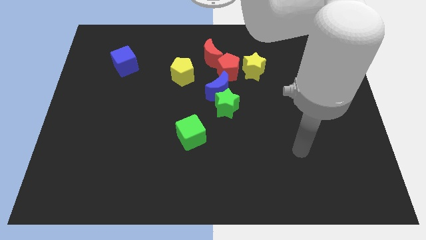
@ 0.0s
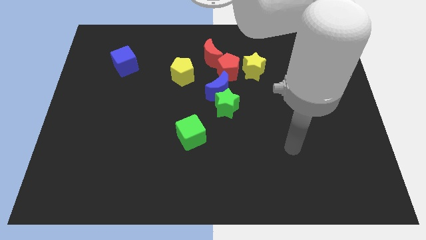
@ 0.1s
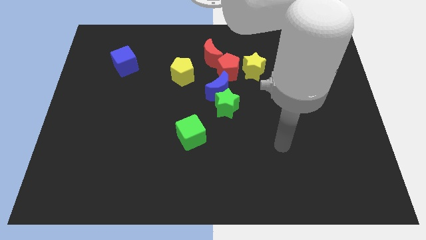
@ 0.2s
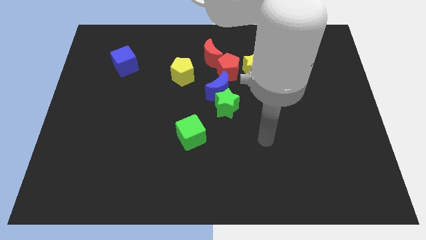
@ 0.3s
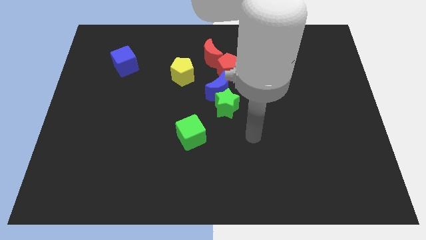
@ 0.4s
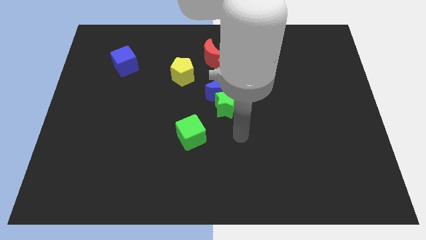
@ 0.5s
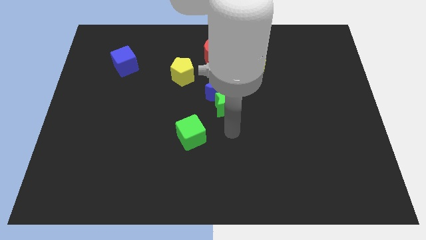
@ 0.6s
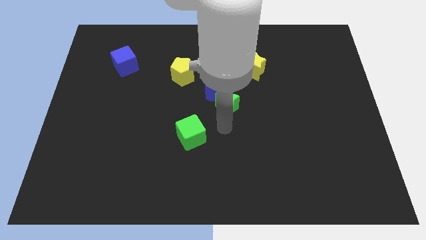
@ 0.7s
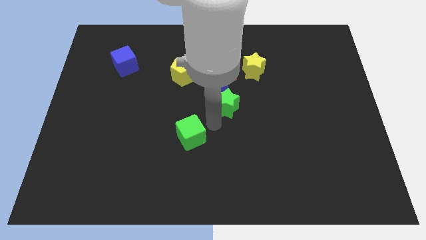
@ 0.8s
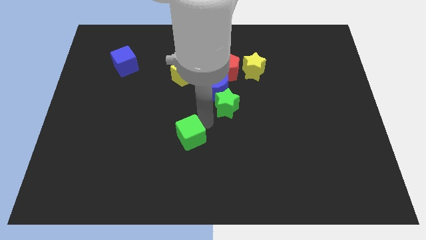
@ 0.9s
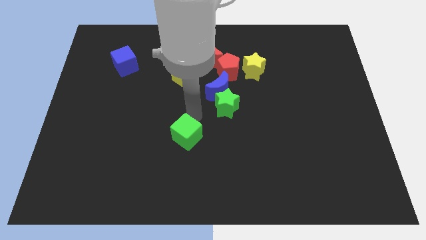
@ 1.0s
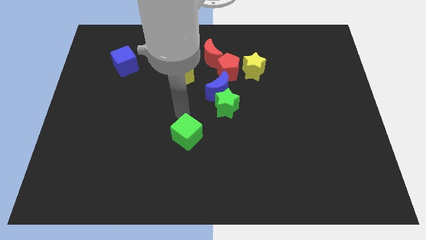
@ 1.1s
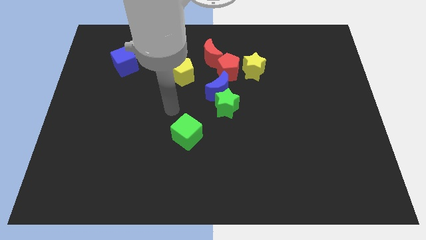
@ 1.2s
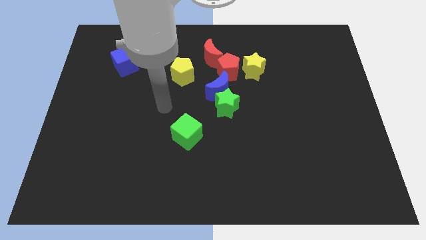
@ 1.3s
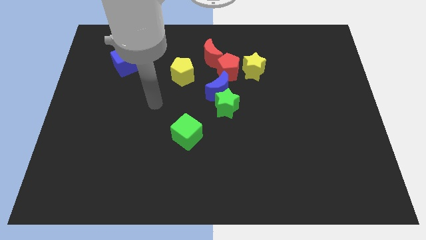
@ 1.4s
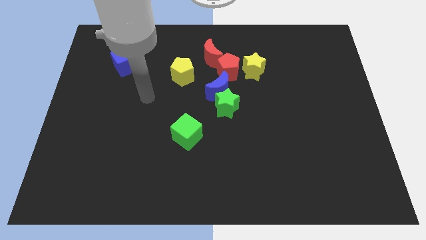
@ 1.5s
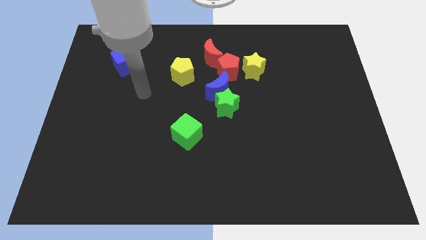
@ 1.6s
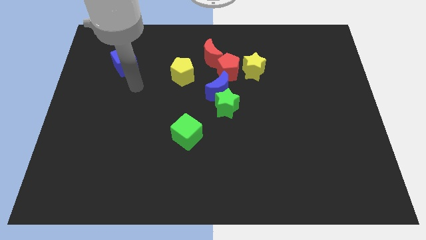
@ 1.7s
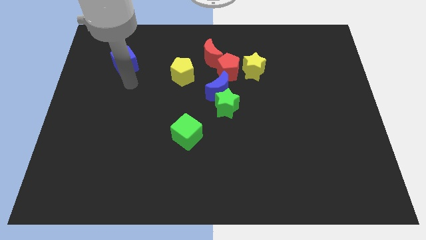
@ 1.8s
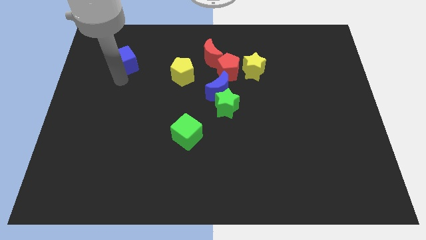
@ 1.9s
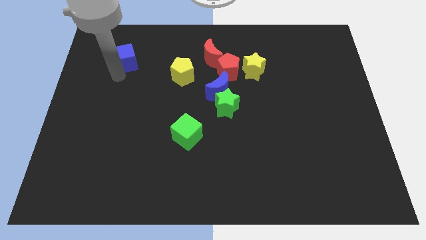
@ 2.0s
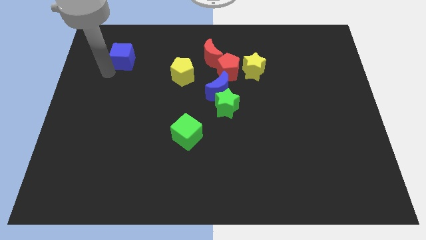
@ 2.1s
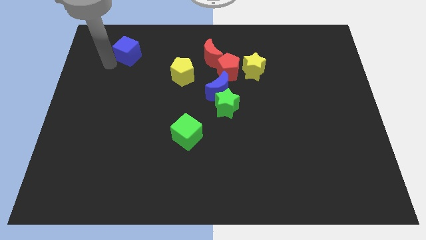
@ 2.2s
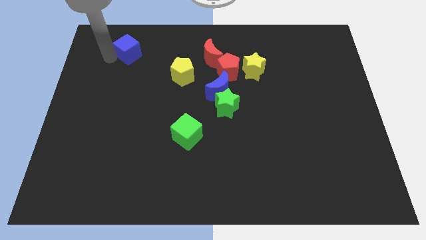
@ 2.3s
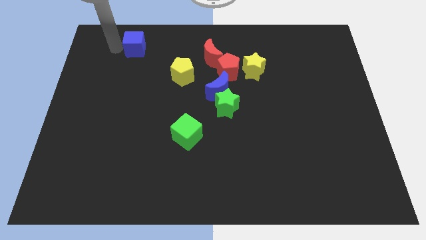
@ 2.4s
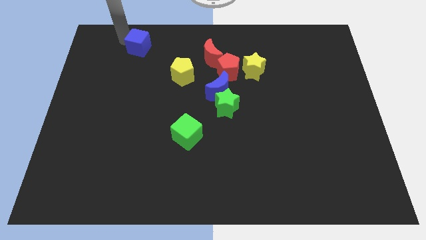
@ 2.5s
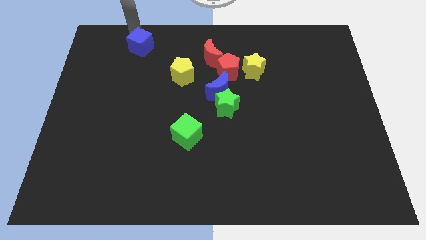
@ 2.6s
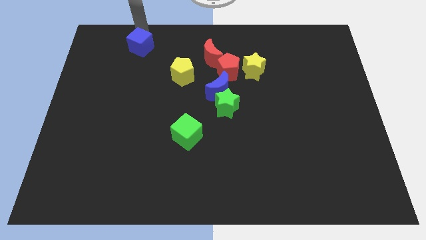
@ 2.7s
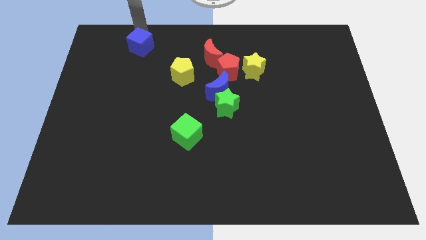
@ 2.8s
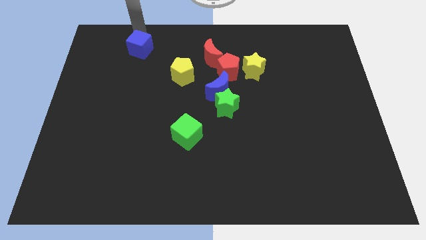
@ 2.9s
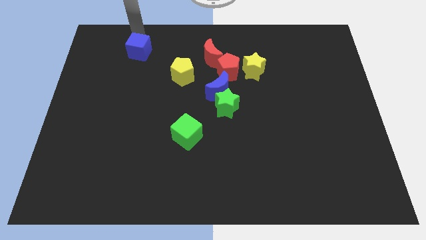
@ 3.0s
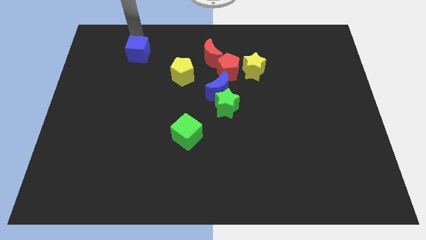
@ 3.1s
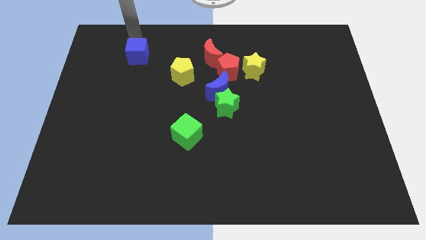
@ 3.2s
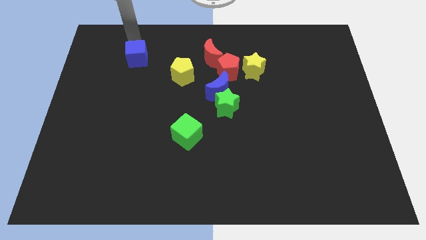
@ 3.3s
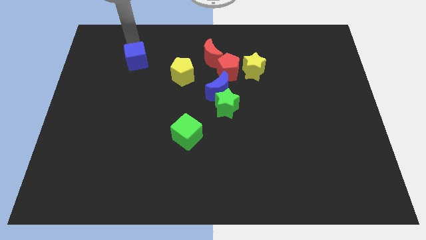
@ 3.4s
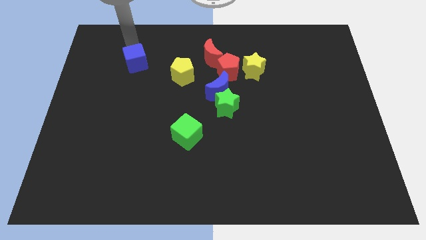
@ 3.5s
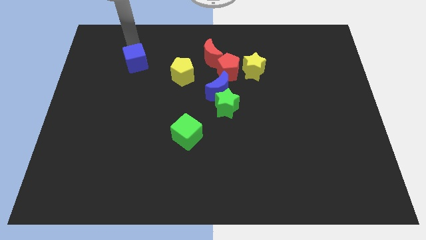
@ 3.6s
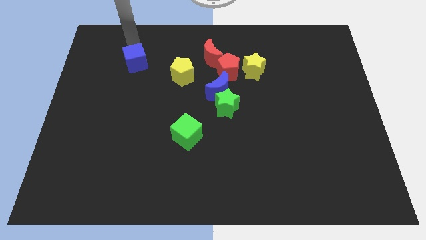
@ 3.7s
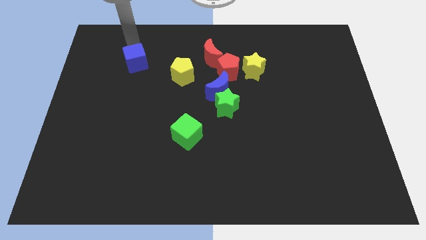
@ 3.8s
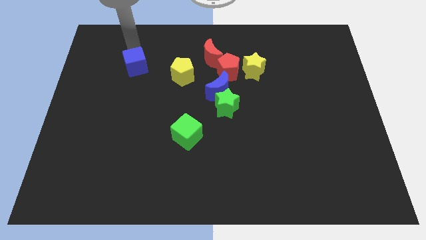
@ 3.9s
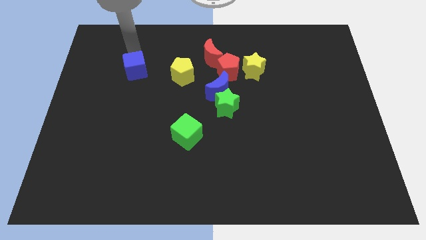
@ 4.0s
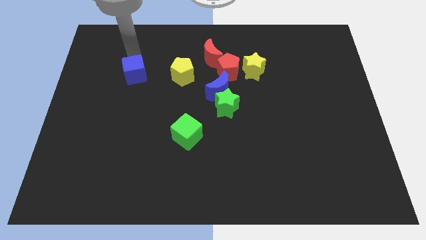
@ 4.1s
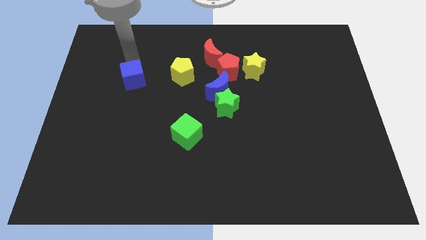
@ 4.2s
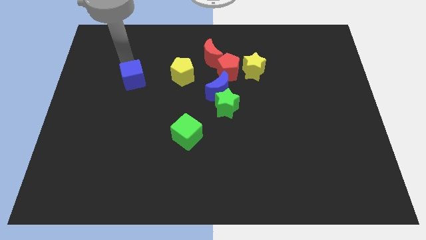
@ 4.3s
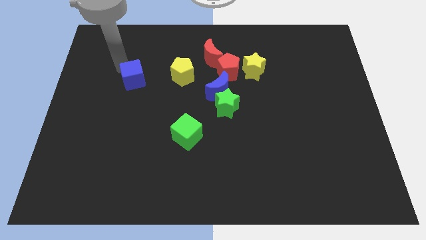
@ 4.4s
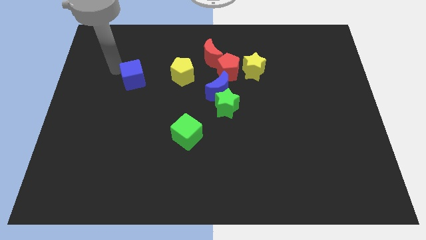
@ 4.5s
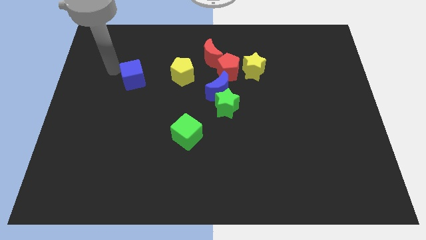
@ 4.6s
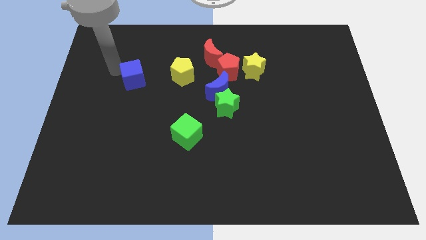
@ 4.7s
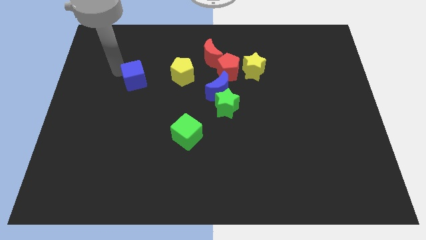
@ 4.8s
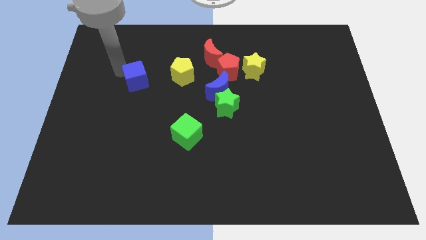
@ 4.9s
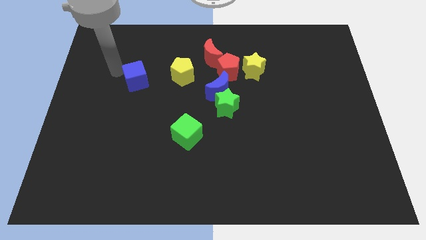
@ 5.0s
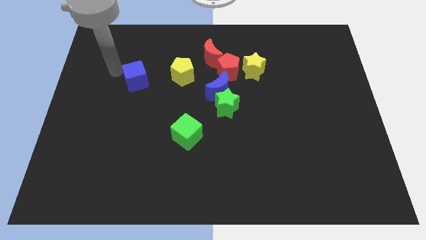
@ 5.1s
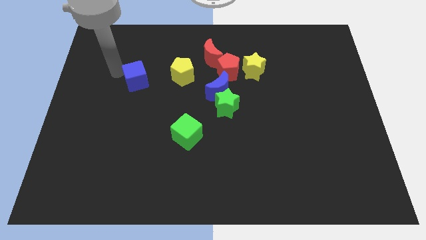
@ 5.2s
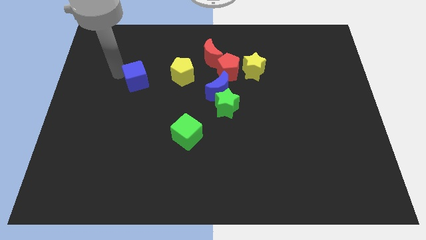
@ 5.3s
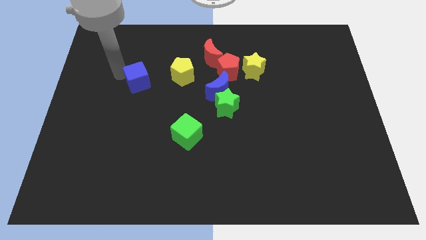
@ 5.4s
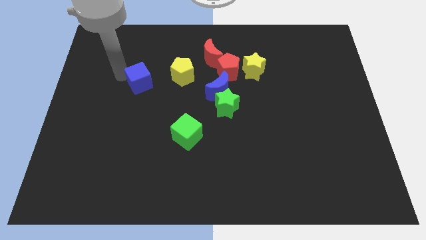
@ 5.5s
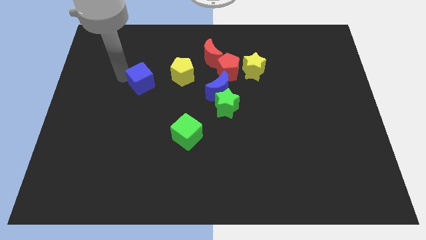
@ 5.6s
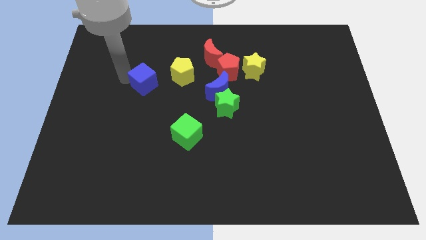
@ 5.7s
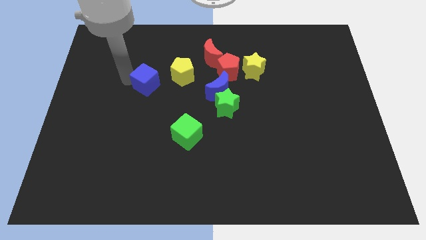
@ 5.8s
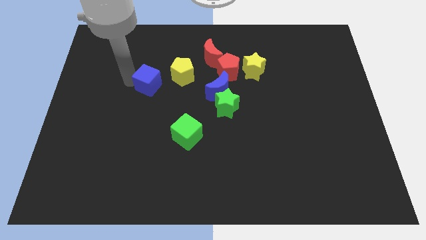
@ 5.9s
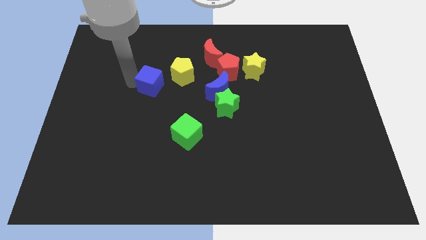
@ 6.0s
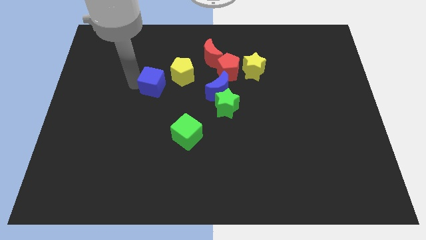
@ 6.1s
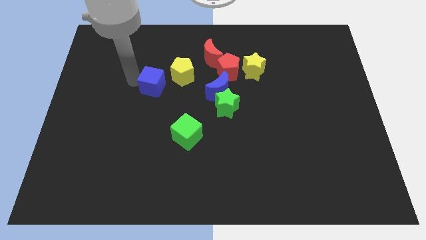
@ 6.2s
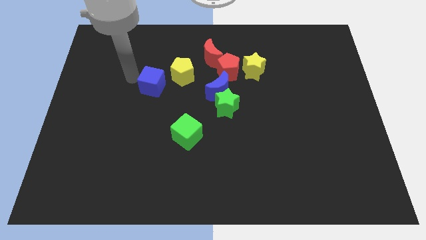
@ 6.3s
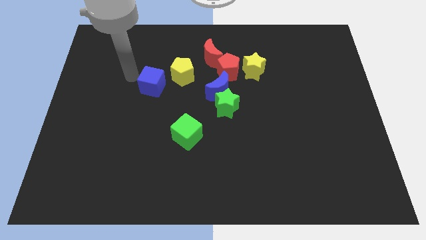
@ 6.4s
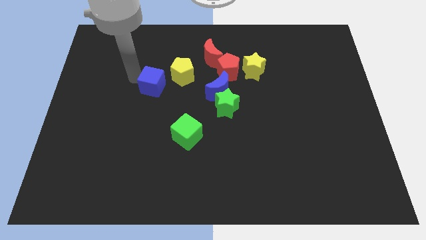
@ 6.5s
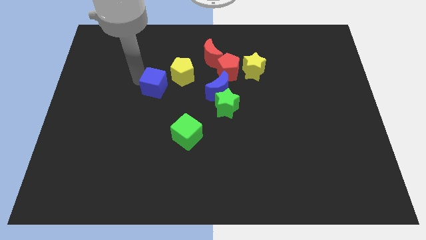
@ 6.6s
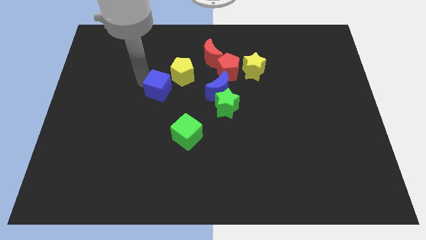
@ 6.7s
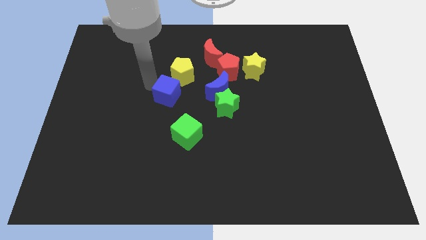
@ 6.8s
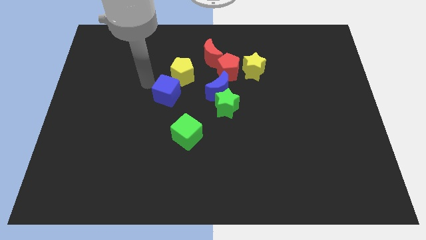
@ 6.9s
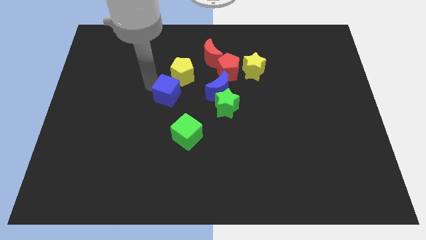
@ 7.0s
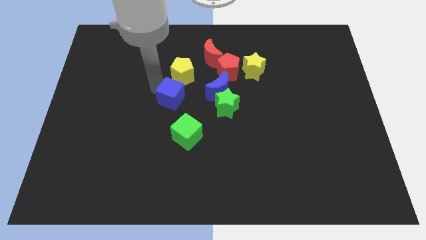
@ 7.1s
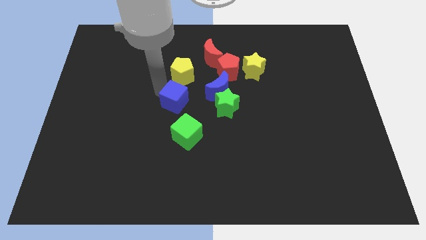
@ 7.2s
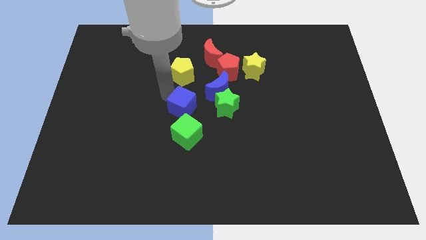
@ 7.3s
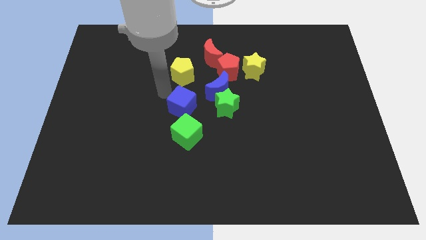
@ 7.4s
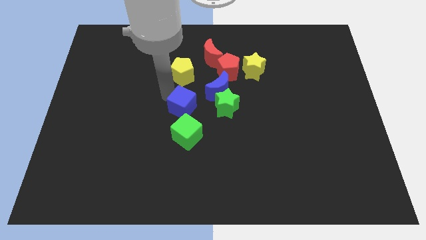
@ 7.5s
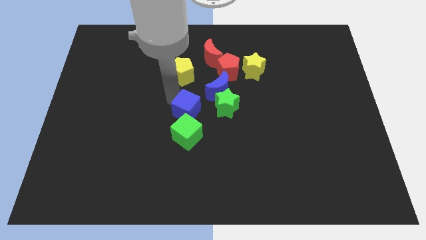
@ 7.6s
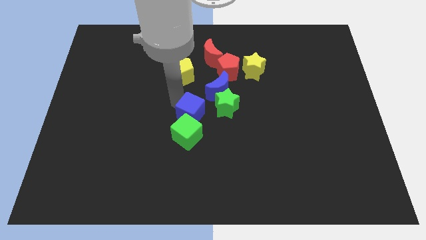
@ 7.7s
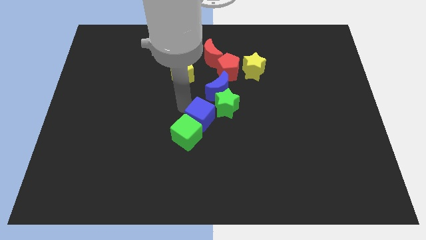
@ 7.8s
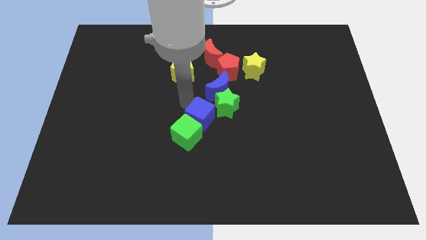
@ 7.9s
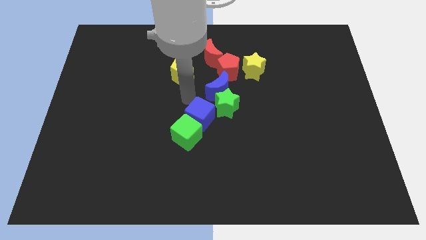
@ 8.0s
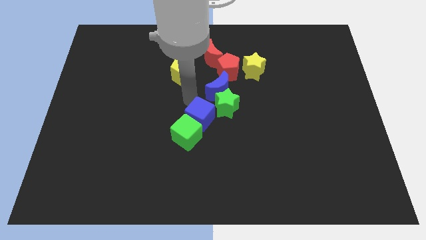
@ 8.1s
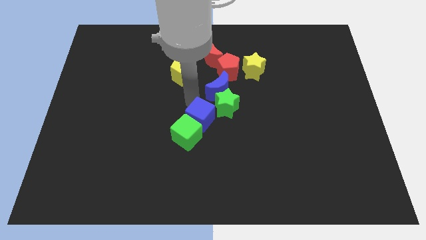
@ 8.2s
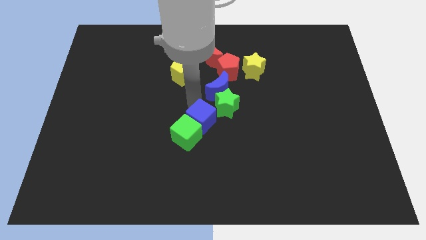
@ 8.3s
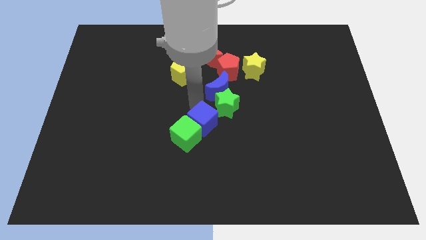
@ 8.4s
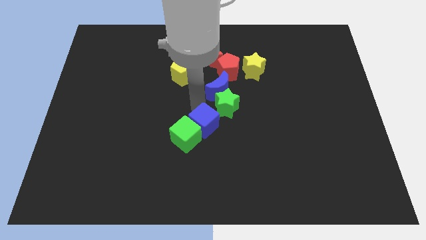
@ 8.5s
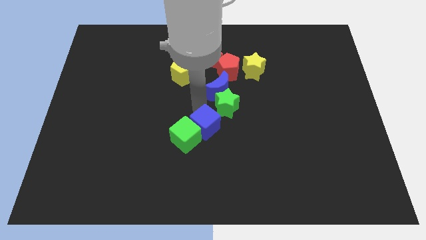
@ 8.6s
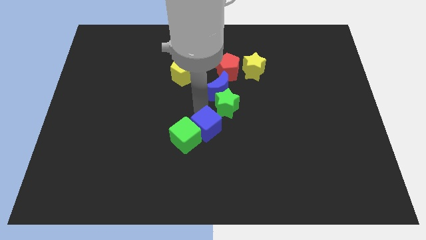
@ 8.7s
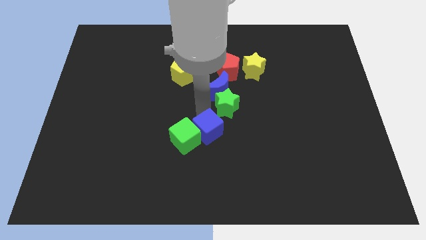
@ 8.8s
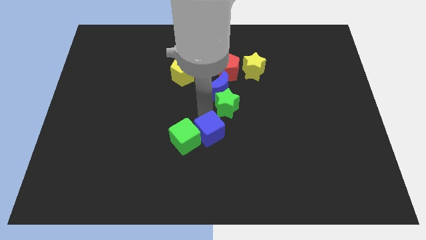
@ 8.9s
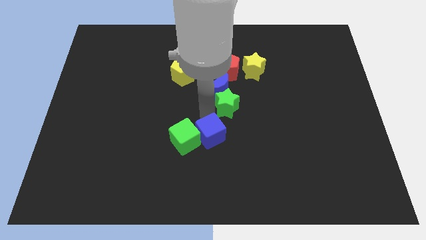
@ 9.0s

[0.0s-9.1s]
slide the blue cube diagonally down and to the right of the green cube
